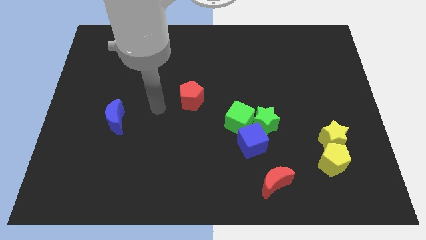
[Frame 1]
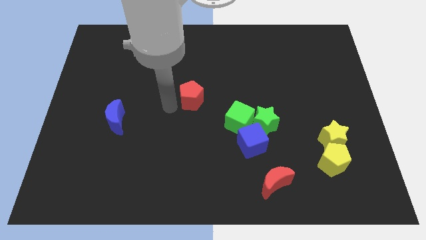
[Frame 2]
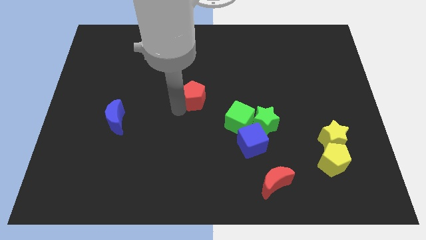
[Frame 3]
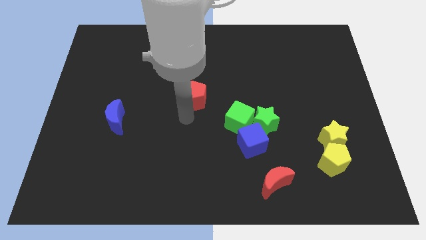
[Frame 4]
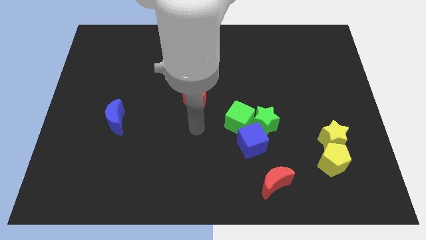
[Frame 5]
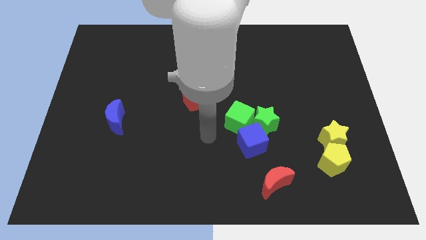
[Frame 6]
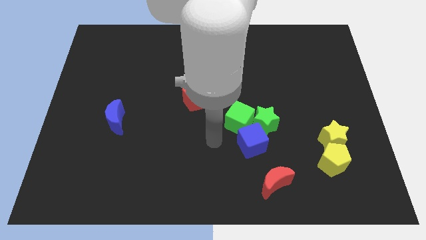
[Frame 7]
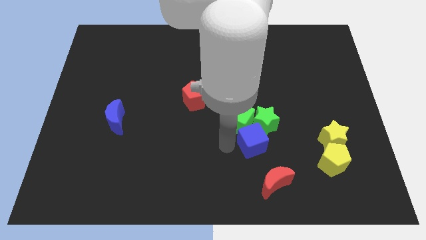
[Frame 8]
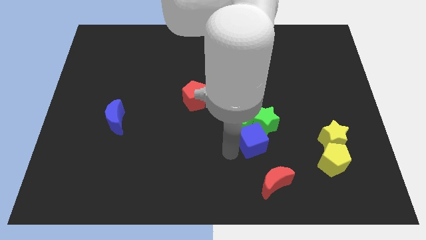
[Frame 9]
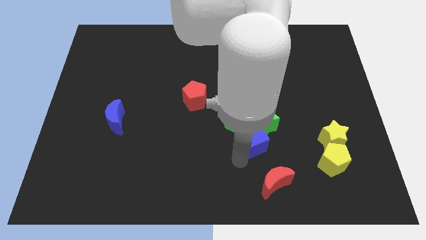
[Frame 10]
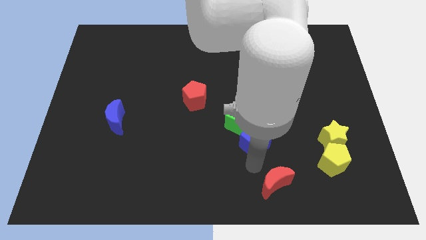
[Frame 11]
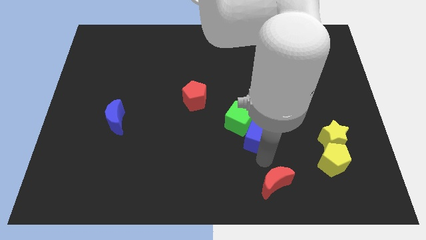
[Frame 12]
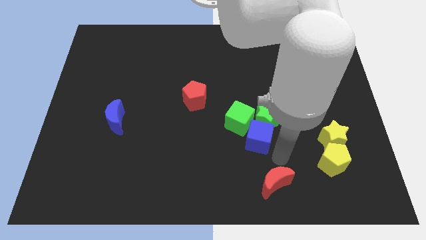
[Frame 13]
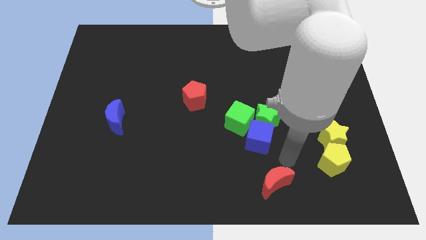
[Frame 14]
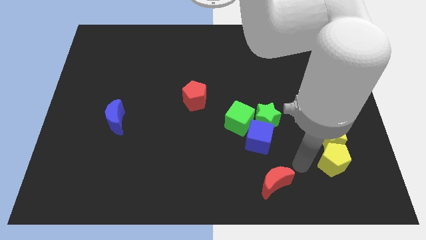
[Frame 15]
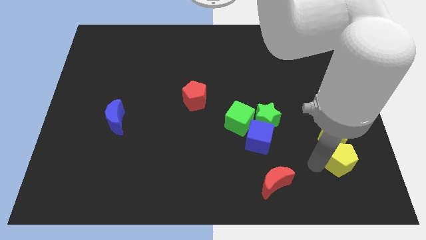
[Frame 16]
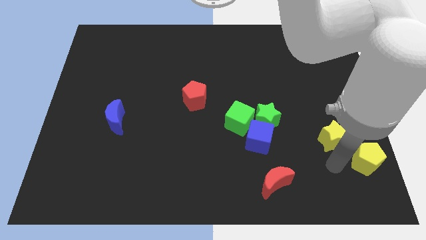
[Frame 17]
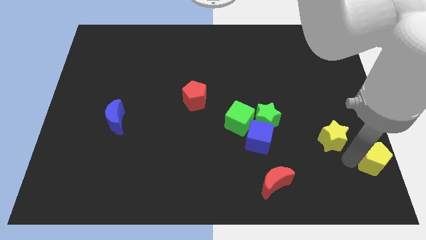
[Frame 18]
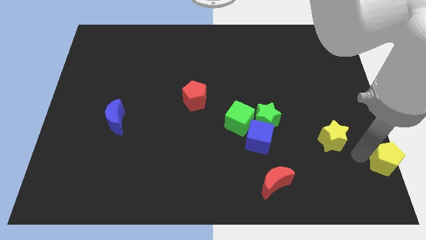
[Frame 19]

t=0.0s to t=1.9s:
move the yellow star away from the yellow pentagon

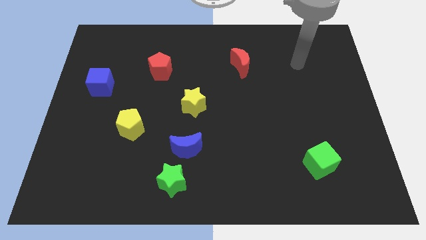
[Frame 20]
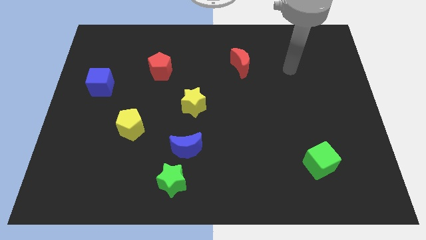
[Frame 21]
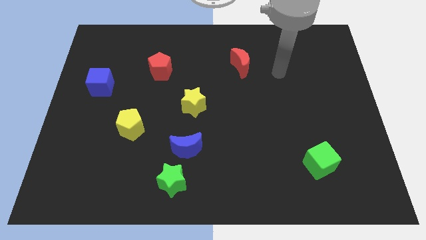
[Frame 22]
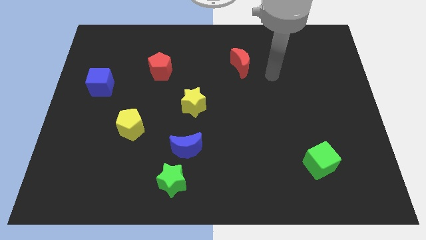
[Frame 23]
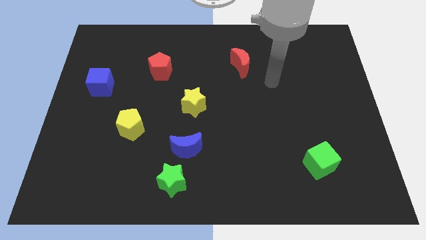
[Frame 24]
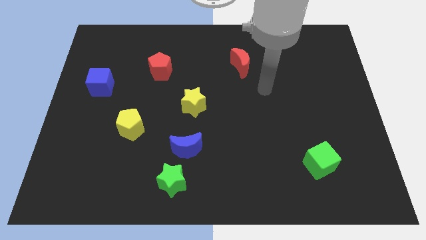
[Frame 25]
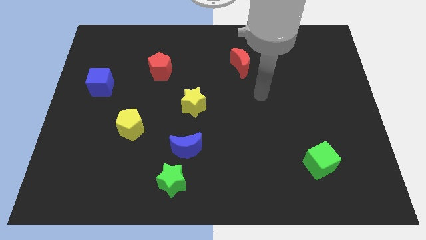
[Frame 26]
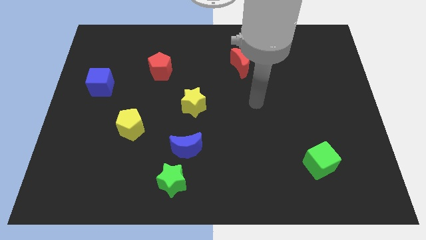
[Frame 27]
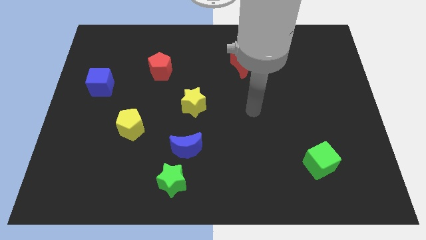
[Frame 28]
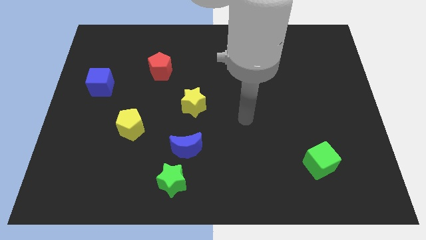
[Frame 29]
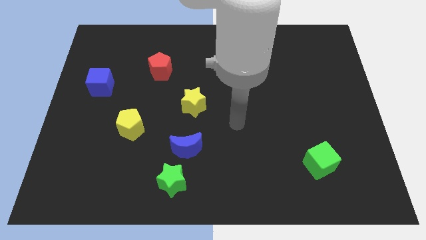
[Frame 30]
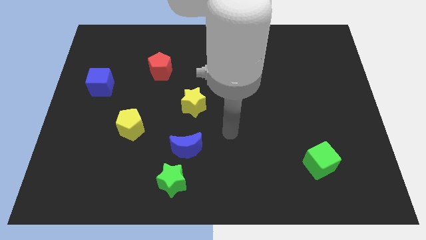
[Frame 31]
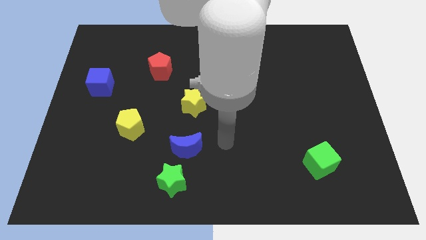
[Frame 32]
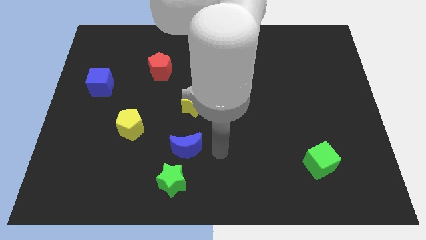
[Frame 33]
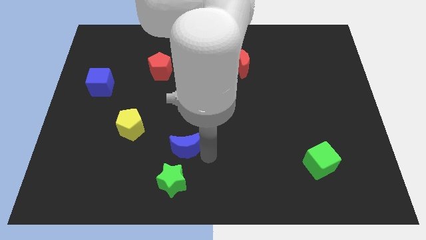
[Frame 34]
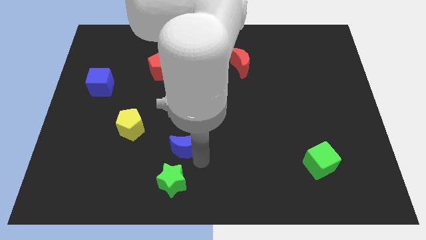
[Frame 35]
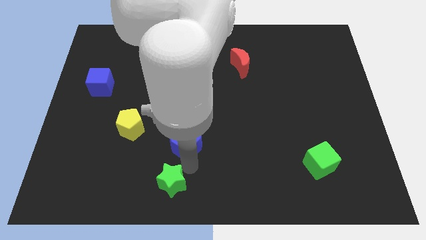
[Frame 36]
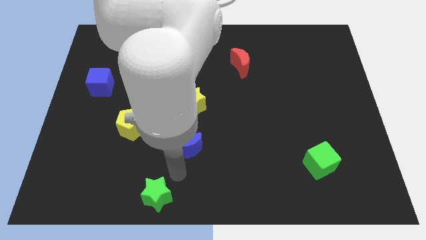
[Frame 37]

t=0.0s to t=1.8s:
move the blue moon away from the green star

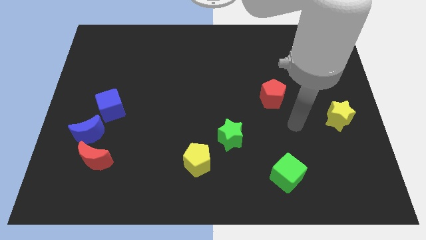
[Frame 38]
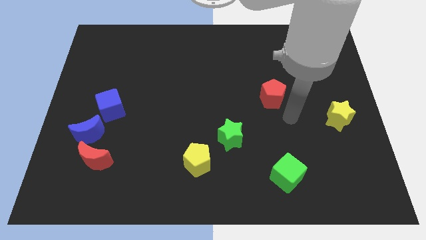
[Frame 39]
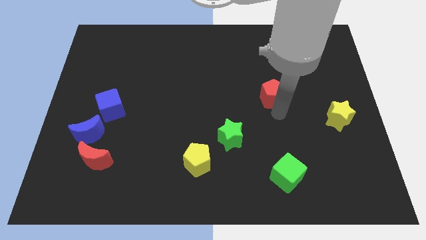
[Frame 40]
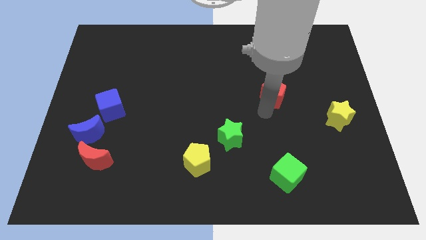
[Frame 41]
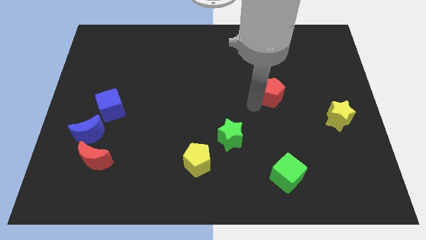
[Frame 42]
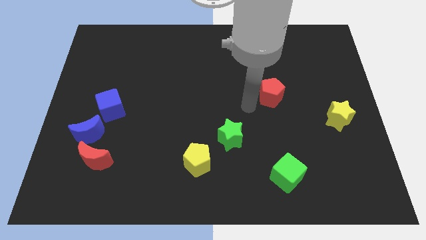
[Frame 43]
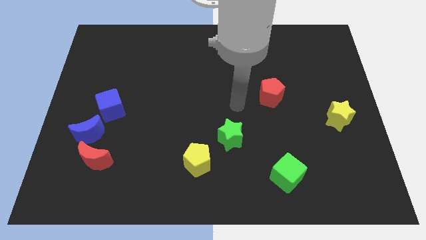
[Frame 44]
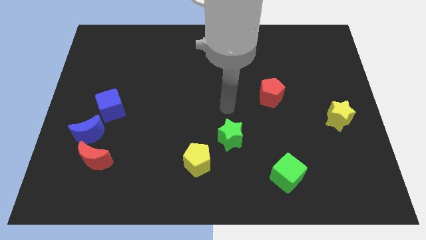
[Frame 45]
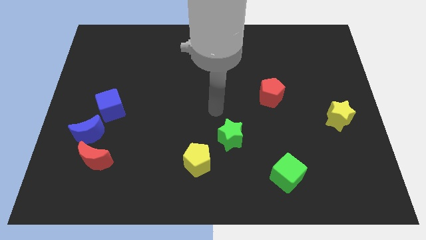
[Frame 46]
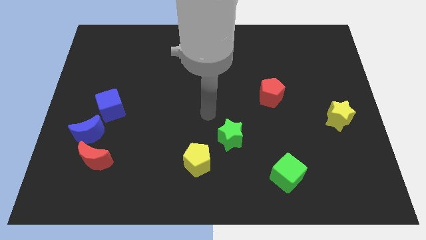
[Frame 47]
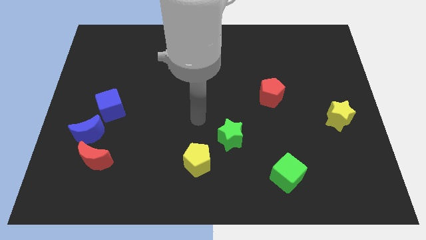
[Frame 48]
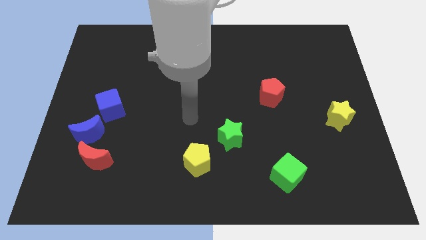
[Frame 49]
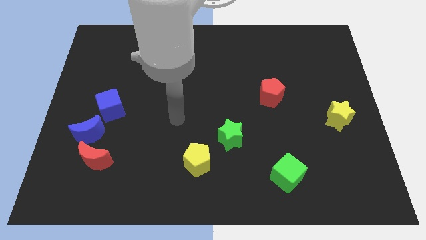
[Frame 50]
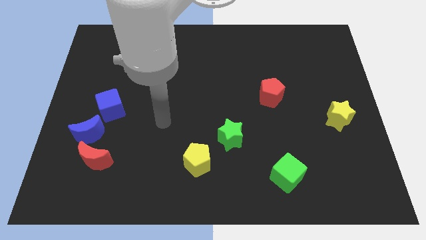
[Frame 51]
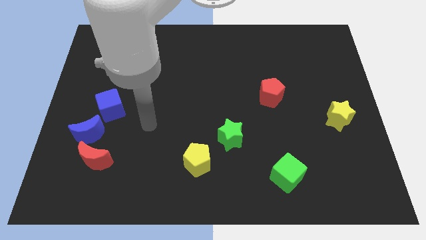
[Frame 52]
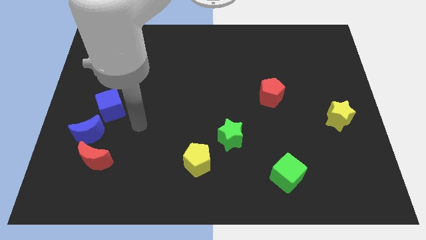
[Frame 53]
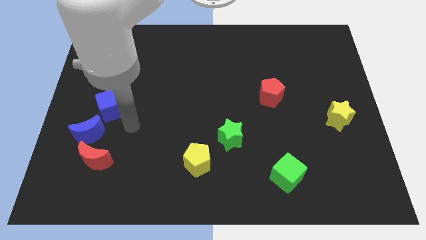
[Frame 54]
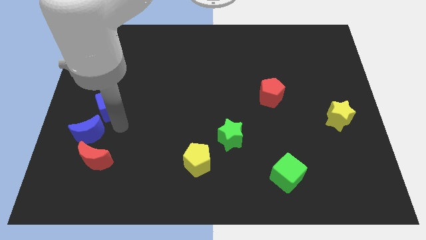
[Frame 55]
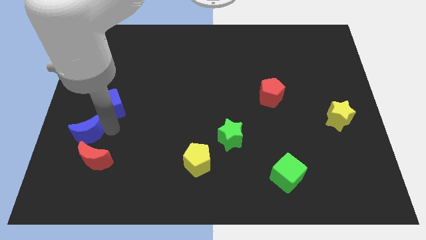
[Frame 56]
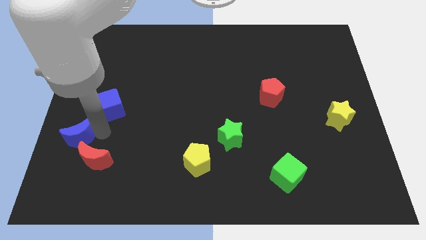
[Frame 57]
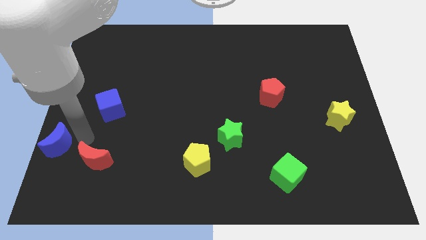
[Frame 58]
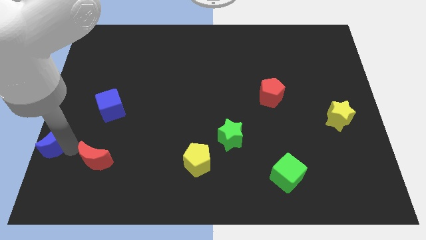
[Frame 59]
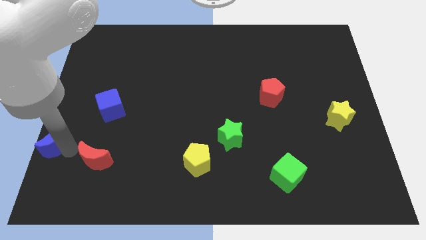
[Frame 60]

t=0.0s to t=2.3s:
move the red moon away from the blue moon

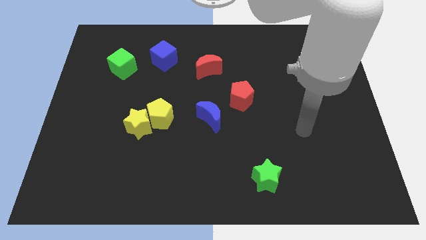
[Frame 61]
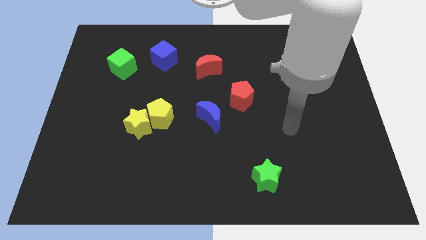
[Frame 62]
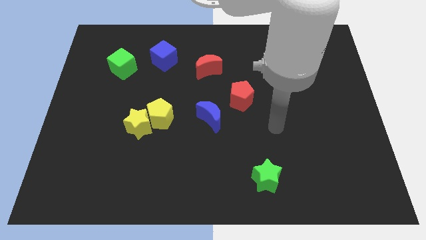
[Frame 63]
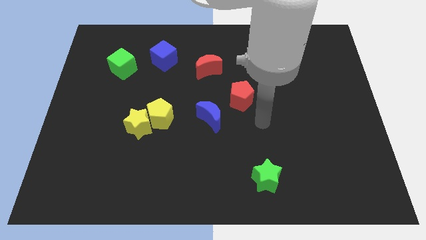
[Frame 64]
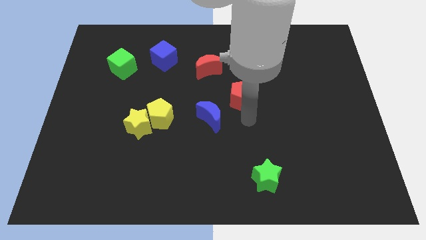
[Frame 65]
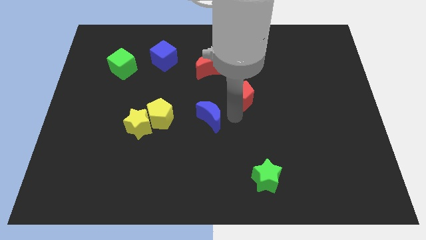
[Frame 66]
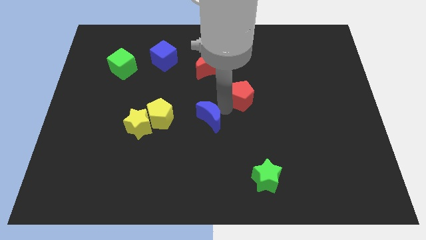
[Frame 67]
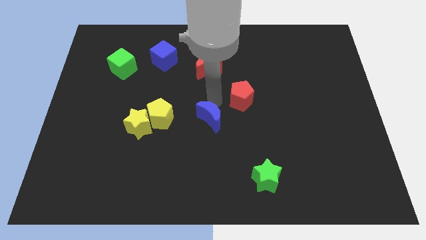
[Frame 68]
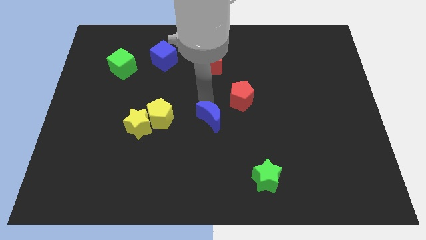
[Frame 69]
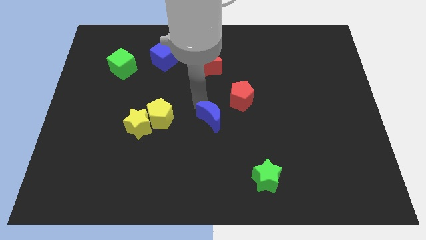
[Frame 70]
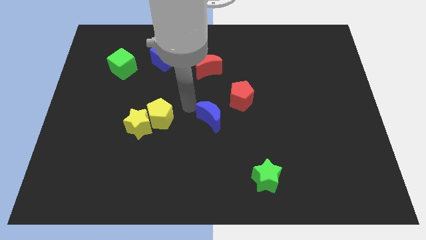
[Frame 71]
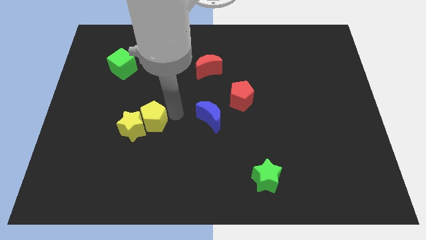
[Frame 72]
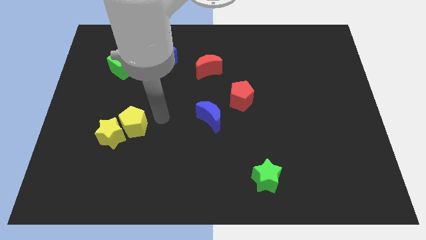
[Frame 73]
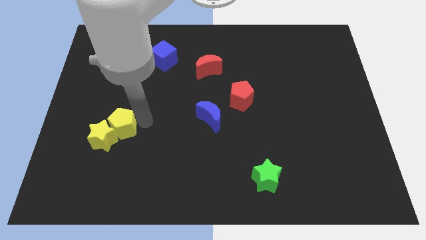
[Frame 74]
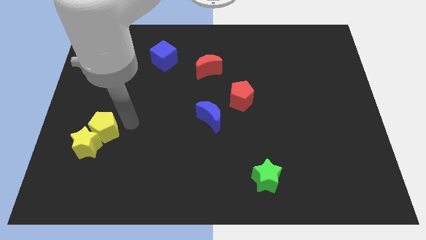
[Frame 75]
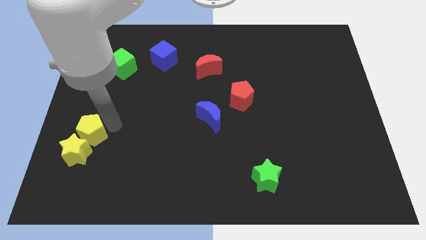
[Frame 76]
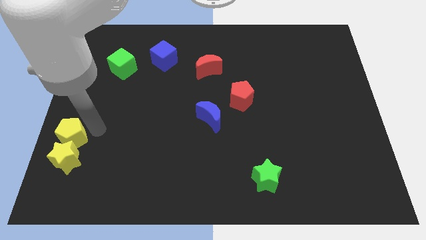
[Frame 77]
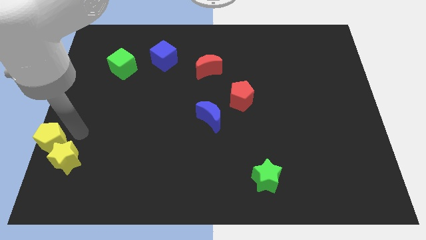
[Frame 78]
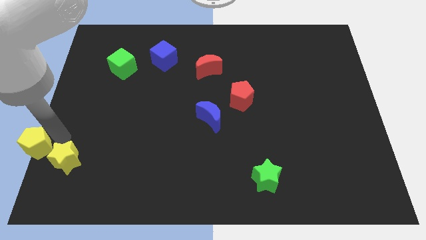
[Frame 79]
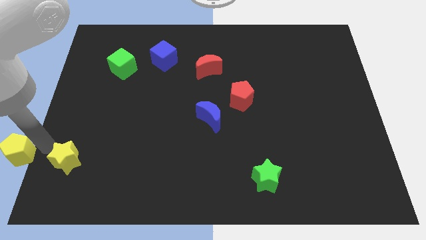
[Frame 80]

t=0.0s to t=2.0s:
pull the yellow star apart from the yellow pentagon

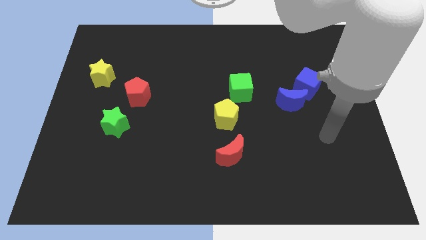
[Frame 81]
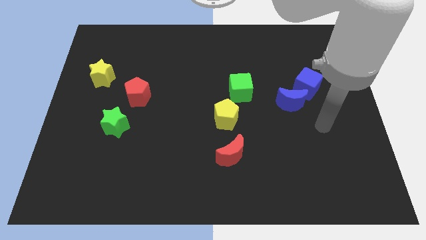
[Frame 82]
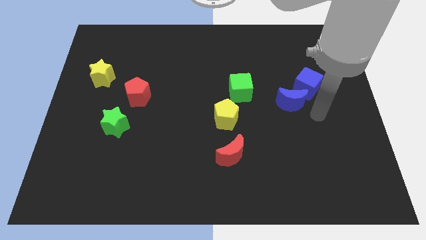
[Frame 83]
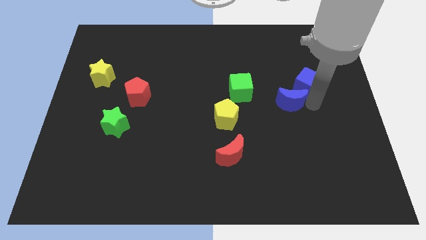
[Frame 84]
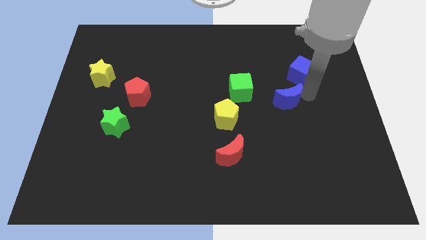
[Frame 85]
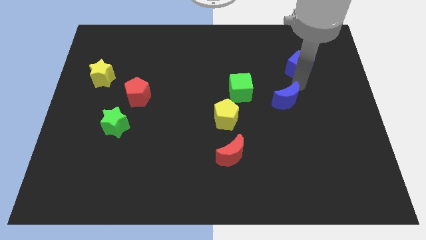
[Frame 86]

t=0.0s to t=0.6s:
separate the blue moon from the blue cube

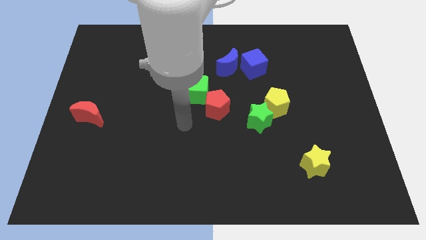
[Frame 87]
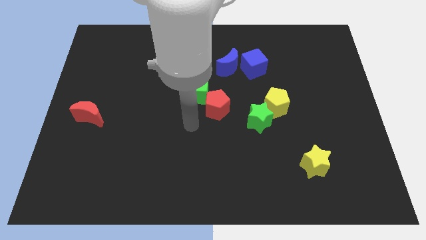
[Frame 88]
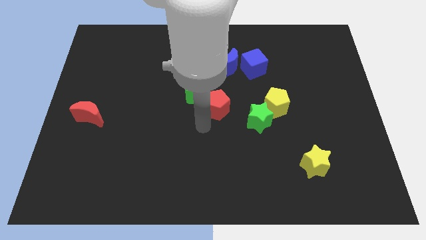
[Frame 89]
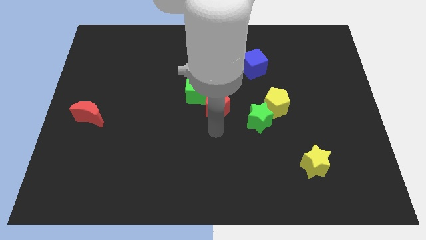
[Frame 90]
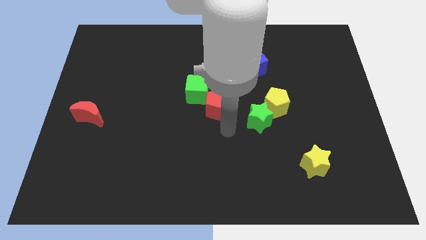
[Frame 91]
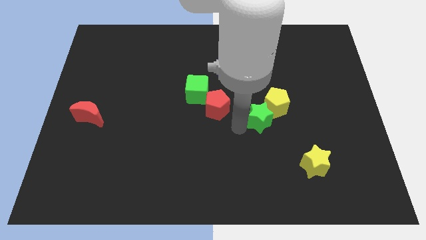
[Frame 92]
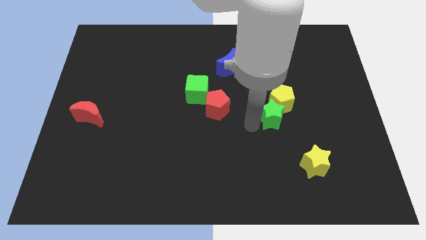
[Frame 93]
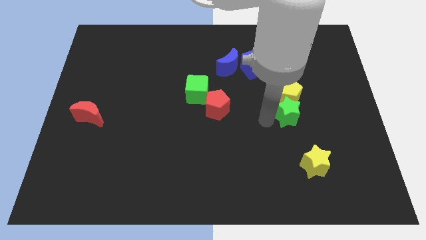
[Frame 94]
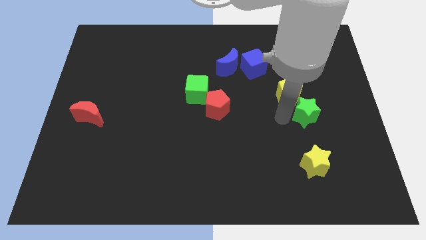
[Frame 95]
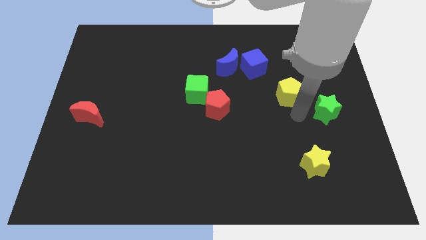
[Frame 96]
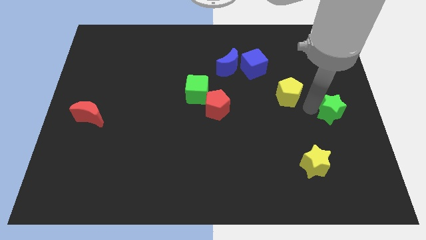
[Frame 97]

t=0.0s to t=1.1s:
separate the yellow pentagon from the green star
